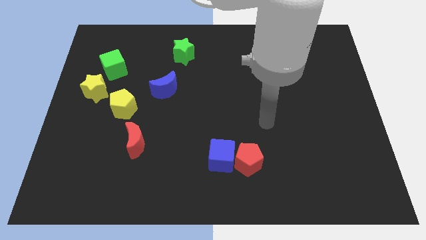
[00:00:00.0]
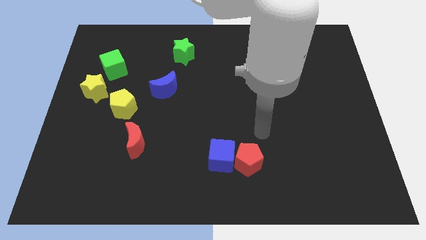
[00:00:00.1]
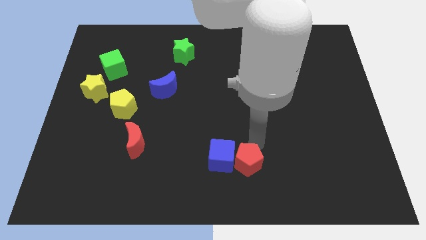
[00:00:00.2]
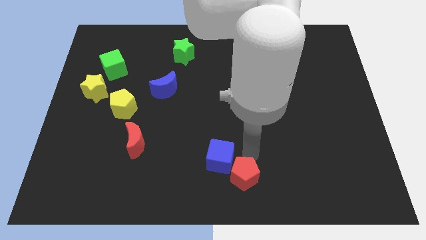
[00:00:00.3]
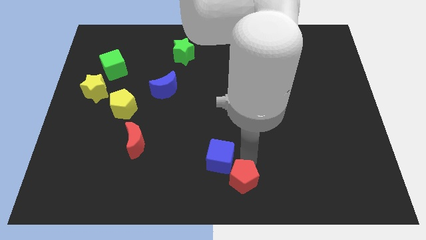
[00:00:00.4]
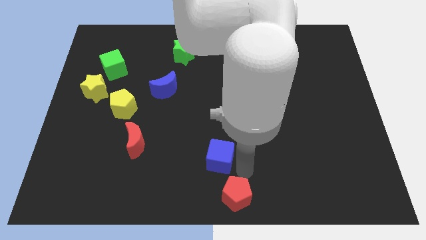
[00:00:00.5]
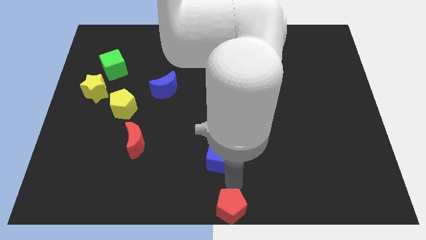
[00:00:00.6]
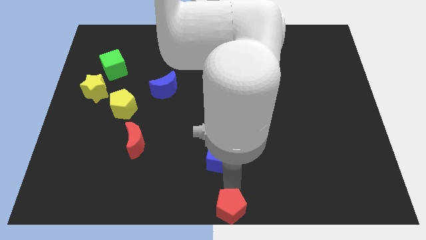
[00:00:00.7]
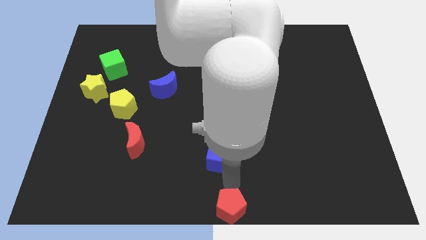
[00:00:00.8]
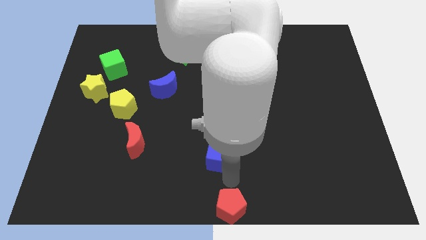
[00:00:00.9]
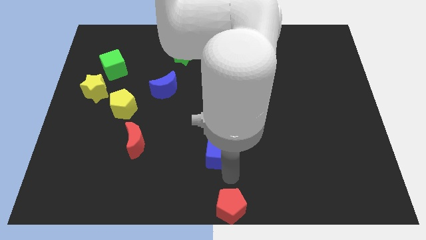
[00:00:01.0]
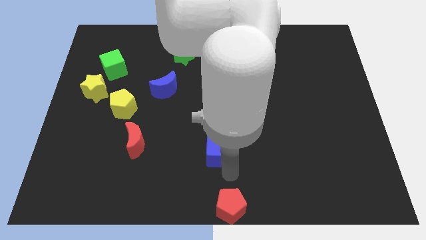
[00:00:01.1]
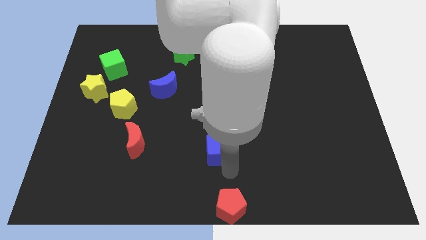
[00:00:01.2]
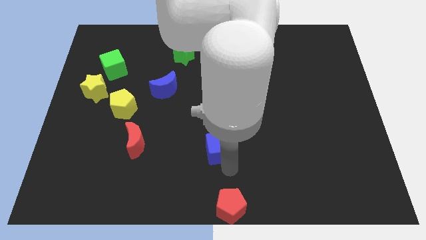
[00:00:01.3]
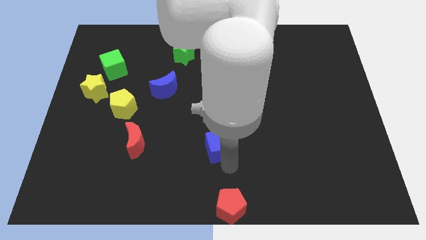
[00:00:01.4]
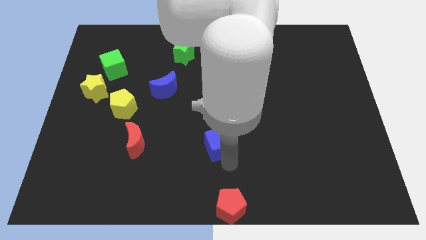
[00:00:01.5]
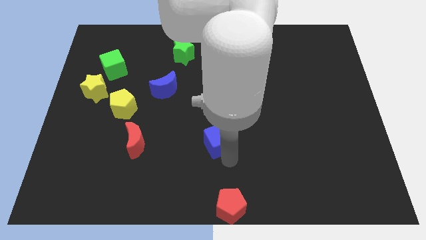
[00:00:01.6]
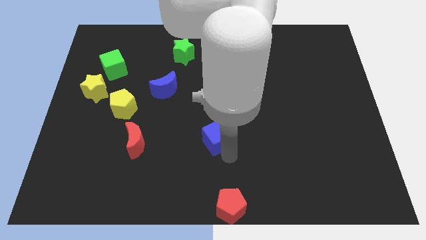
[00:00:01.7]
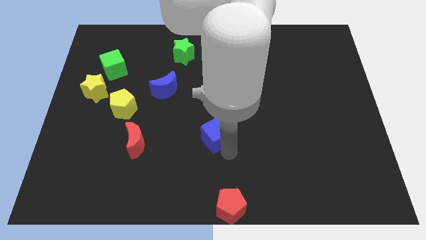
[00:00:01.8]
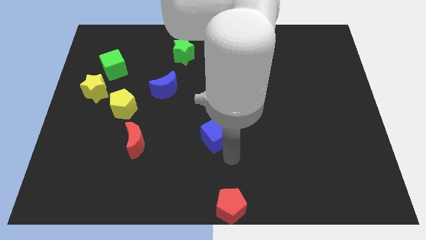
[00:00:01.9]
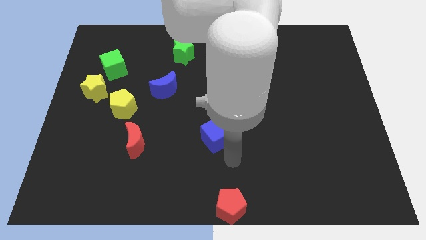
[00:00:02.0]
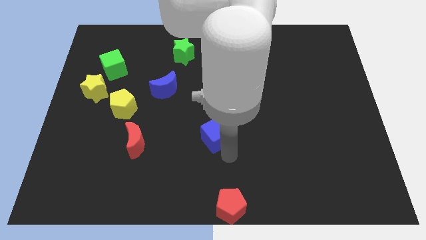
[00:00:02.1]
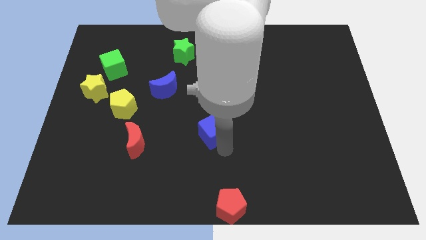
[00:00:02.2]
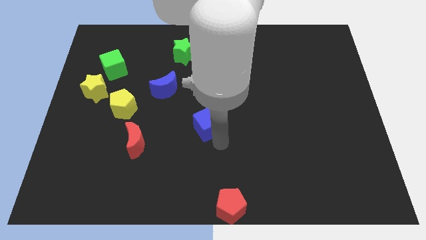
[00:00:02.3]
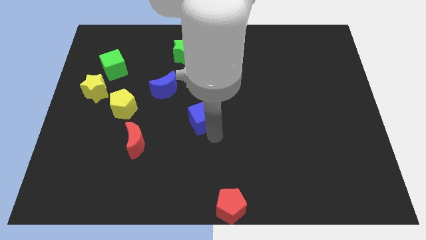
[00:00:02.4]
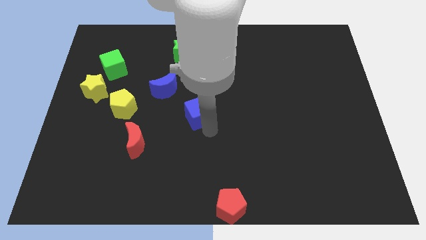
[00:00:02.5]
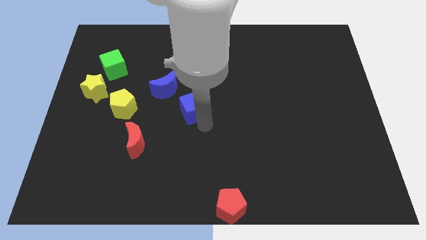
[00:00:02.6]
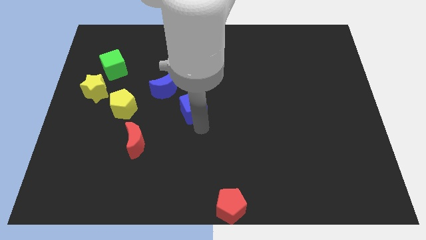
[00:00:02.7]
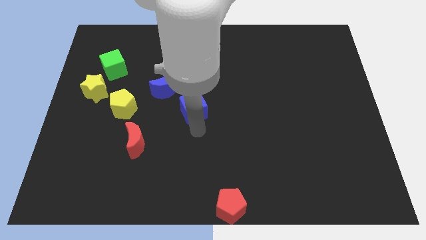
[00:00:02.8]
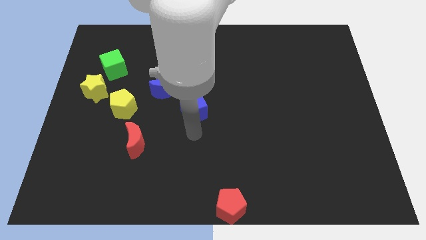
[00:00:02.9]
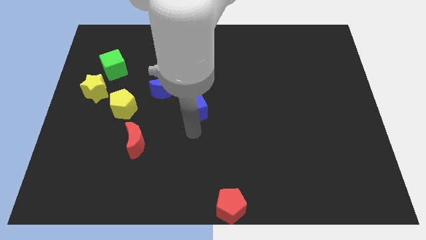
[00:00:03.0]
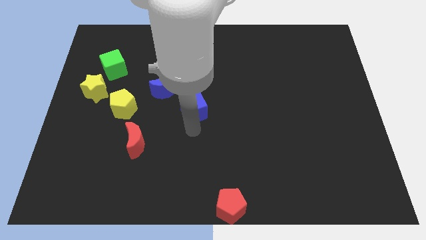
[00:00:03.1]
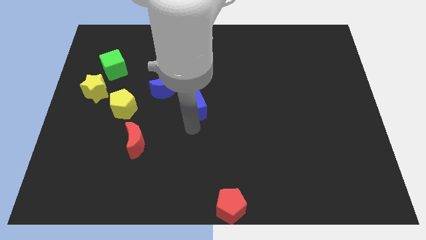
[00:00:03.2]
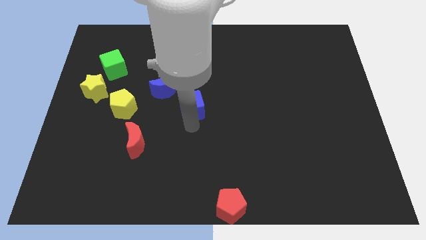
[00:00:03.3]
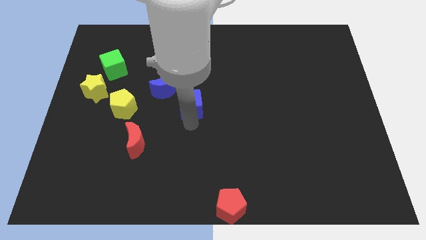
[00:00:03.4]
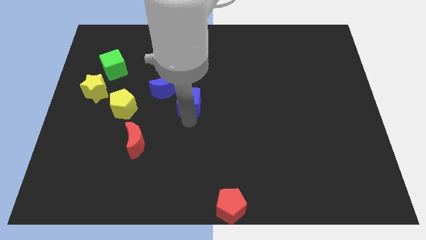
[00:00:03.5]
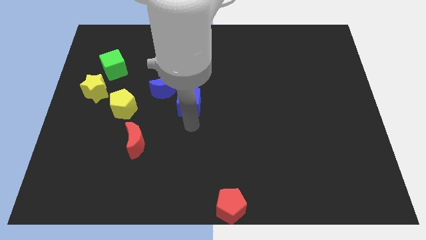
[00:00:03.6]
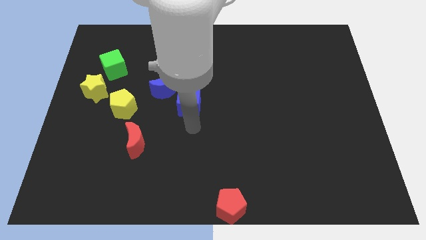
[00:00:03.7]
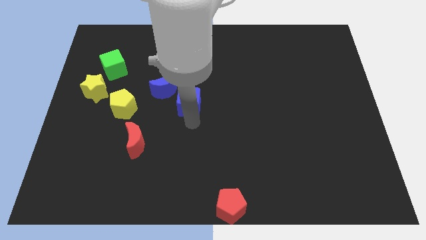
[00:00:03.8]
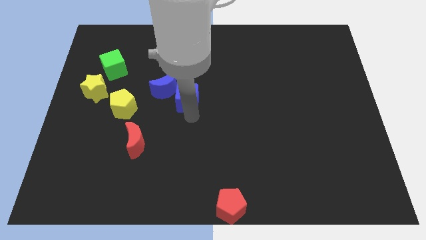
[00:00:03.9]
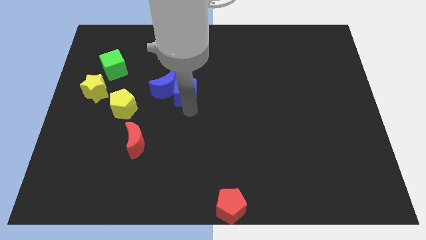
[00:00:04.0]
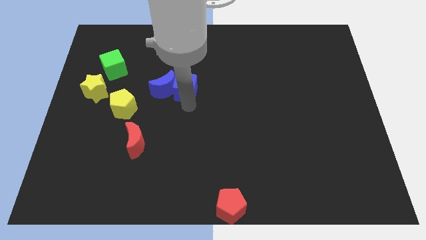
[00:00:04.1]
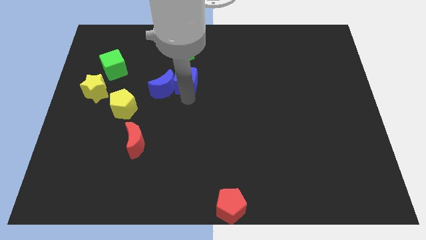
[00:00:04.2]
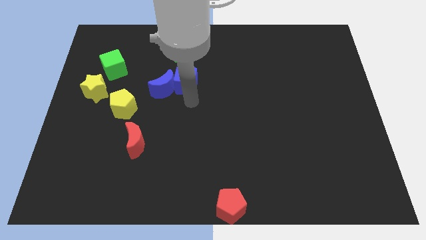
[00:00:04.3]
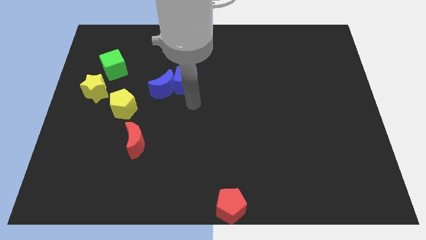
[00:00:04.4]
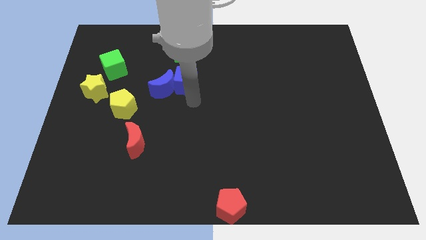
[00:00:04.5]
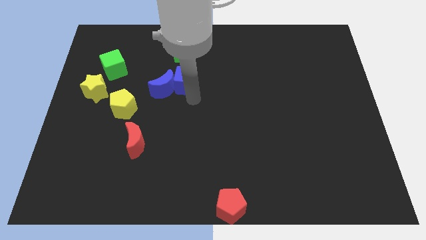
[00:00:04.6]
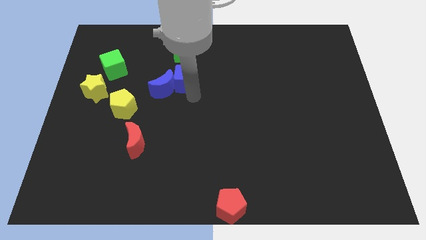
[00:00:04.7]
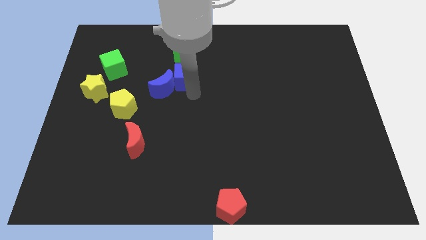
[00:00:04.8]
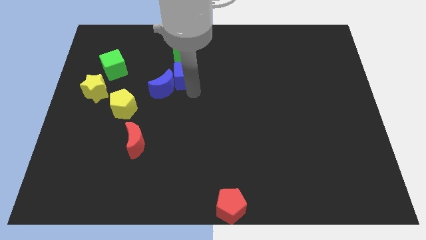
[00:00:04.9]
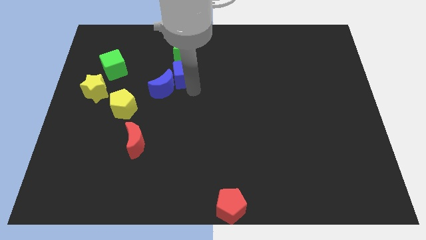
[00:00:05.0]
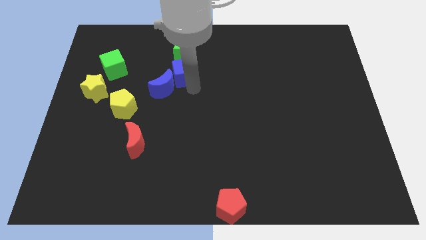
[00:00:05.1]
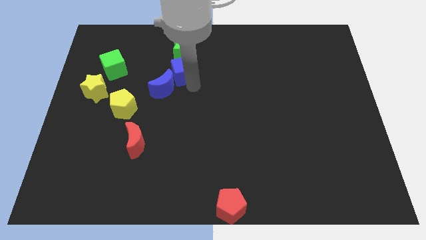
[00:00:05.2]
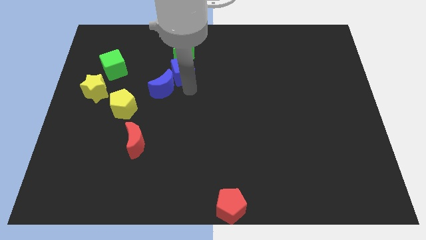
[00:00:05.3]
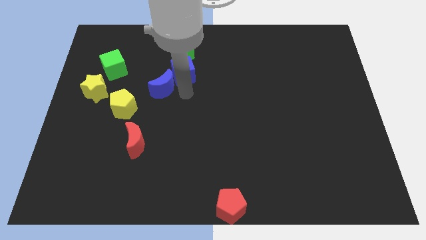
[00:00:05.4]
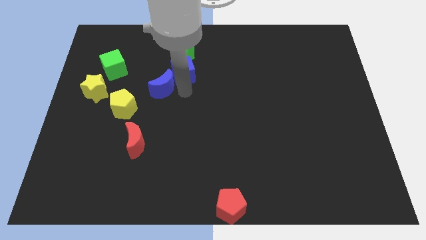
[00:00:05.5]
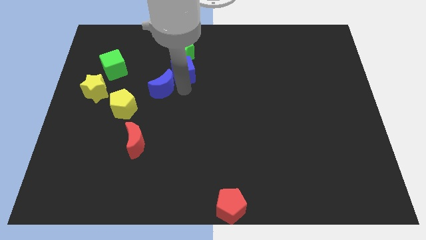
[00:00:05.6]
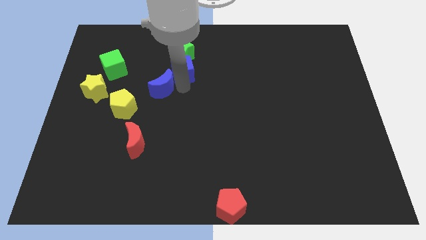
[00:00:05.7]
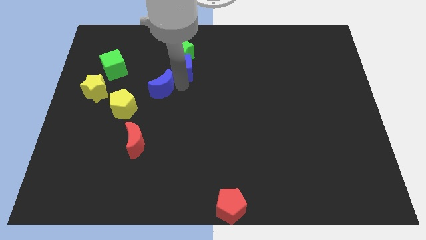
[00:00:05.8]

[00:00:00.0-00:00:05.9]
put the blue cube to the green star

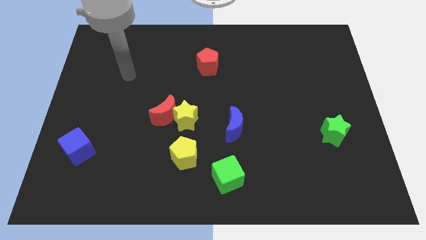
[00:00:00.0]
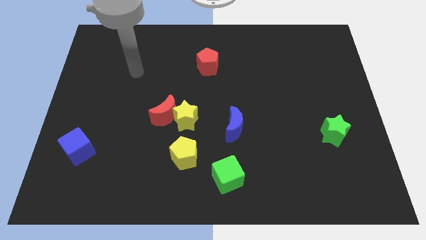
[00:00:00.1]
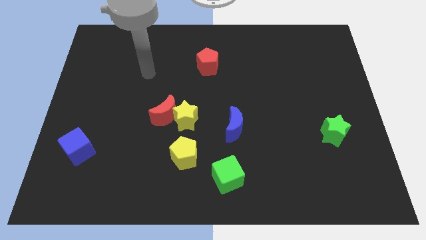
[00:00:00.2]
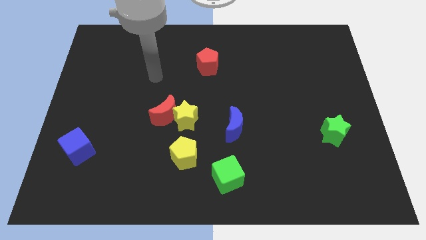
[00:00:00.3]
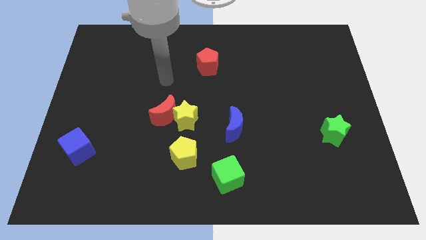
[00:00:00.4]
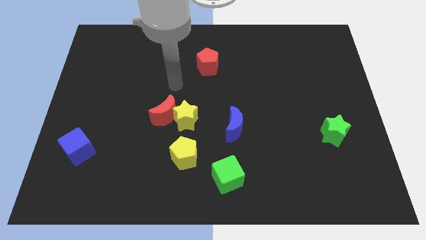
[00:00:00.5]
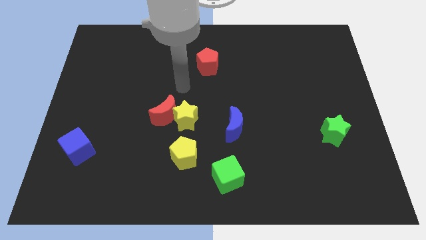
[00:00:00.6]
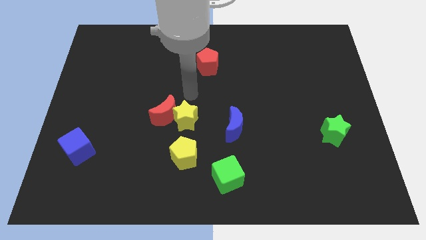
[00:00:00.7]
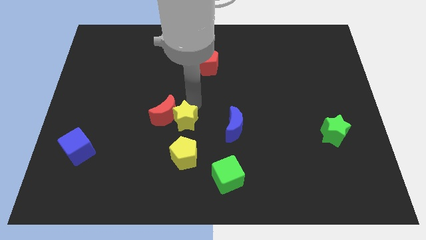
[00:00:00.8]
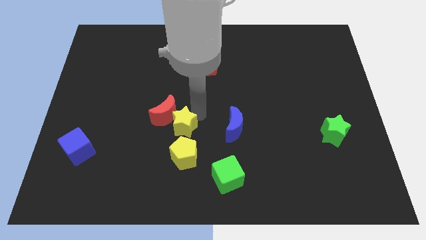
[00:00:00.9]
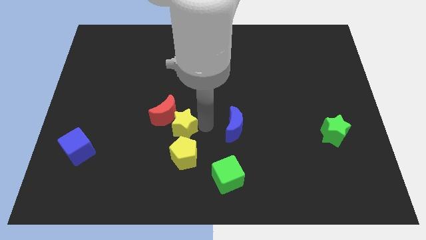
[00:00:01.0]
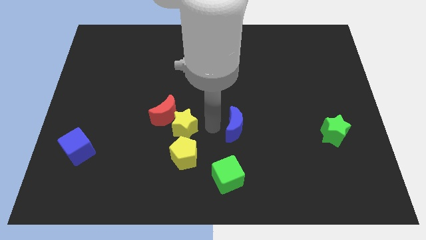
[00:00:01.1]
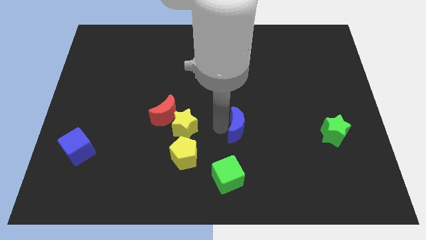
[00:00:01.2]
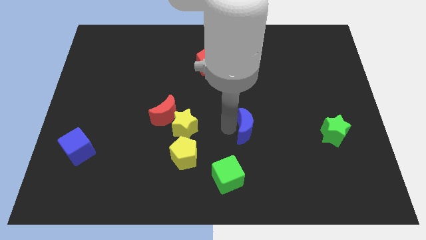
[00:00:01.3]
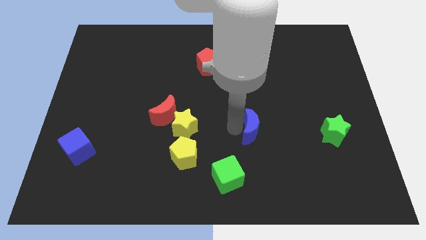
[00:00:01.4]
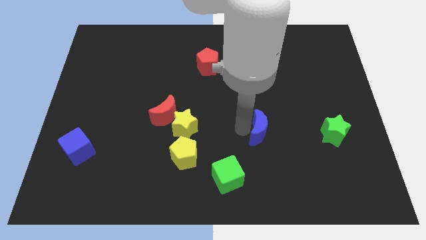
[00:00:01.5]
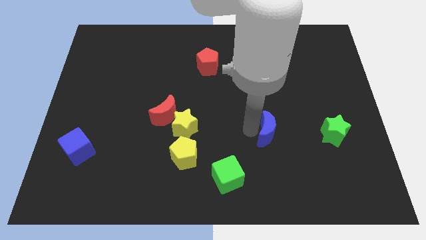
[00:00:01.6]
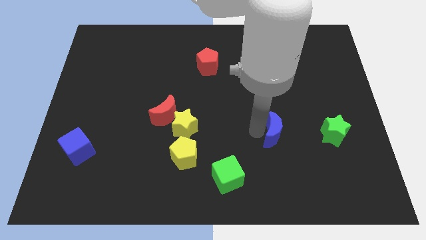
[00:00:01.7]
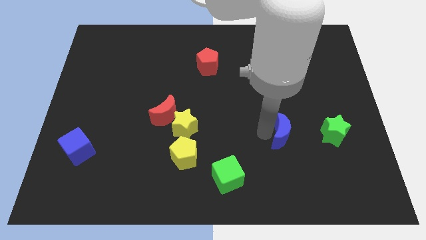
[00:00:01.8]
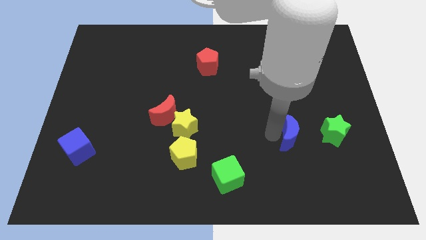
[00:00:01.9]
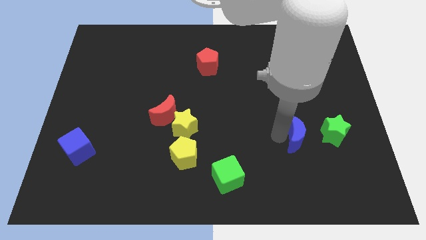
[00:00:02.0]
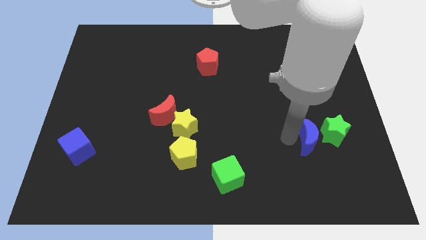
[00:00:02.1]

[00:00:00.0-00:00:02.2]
move the blue moon close to the green star
